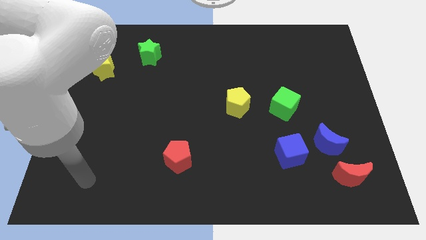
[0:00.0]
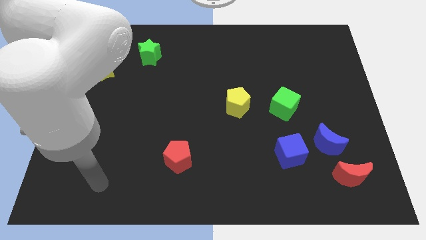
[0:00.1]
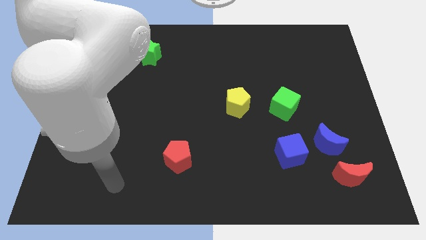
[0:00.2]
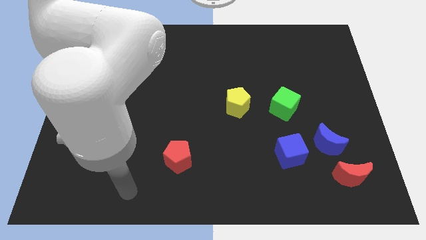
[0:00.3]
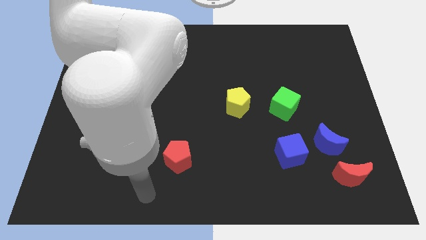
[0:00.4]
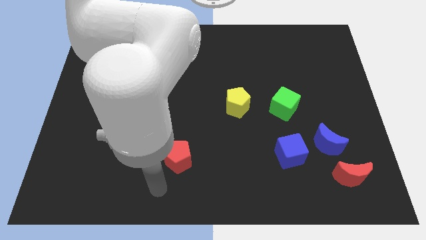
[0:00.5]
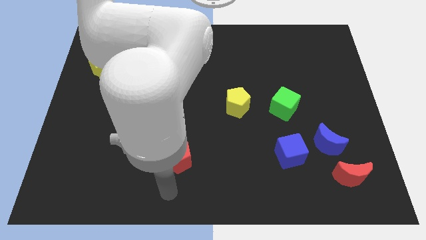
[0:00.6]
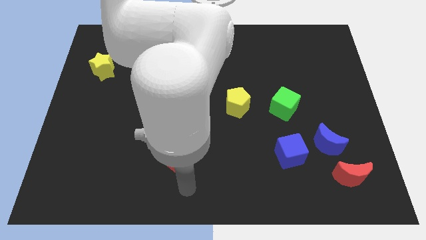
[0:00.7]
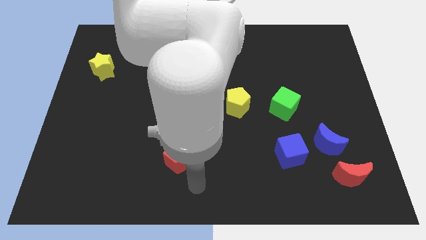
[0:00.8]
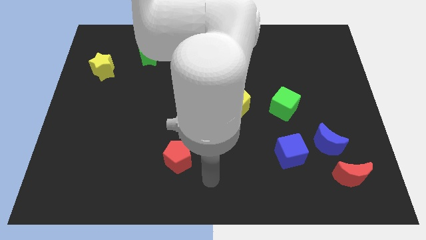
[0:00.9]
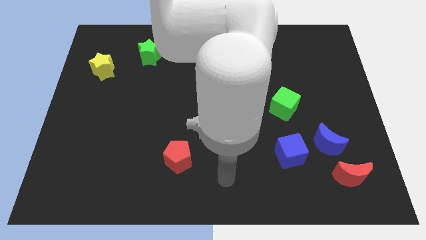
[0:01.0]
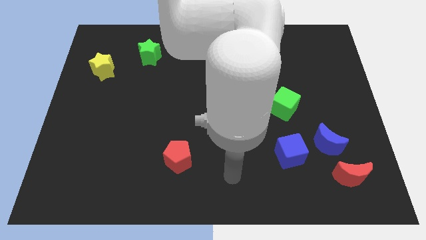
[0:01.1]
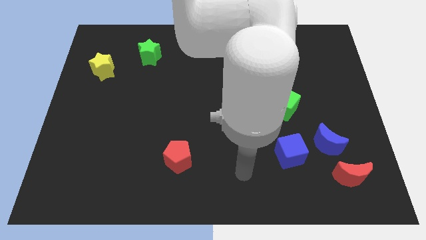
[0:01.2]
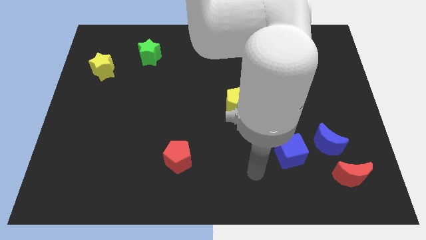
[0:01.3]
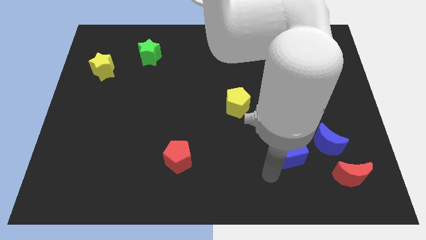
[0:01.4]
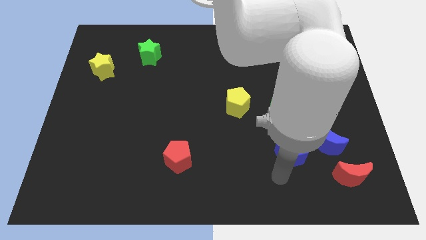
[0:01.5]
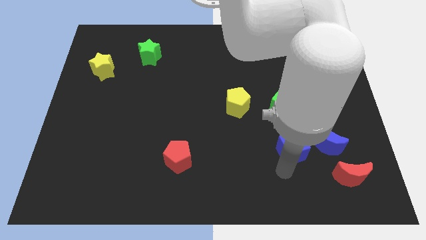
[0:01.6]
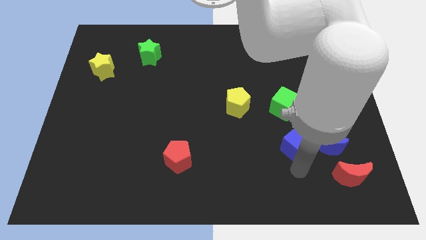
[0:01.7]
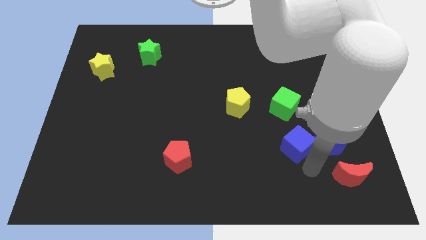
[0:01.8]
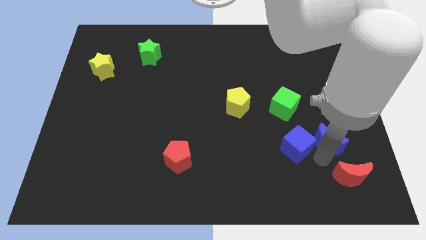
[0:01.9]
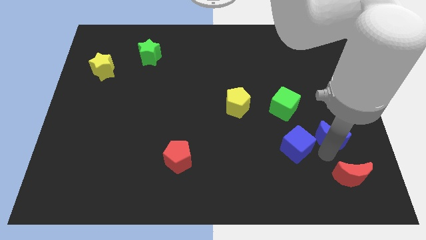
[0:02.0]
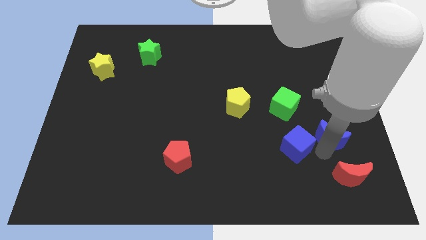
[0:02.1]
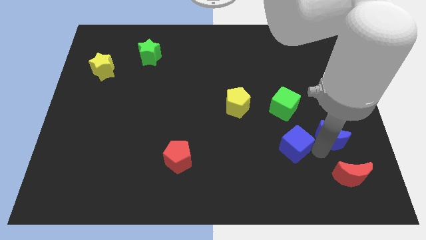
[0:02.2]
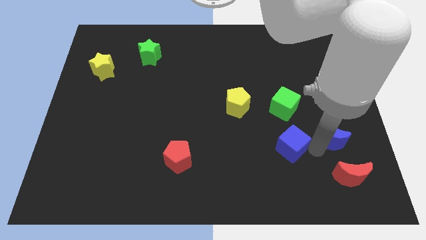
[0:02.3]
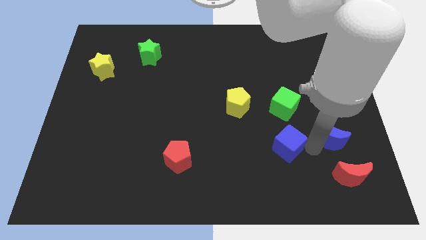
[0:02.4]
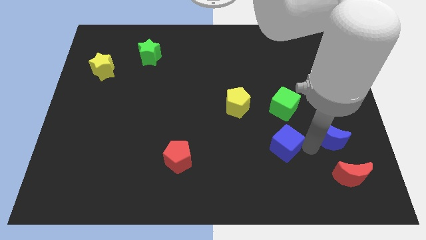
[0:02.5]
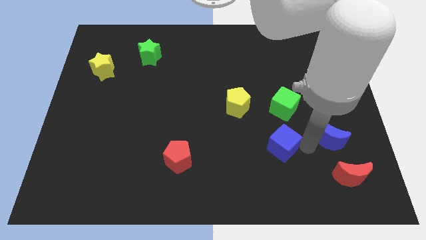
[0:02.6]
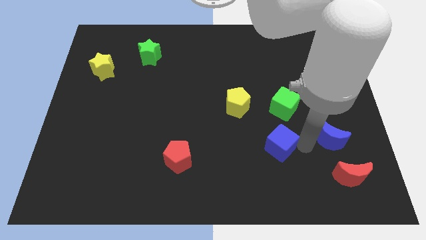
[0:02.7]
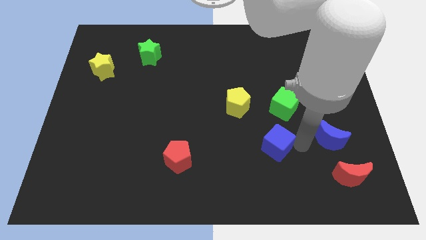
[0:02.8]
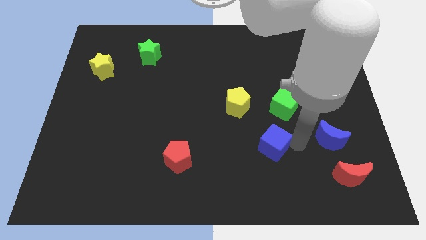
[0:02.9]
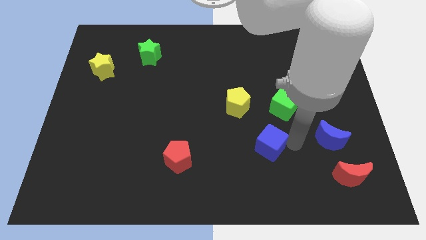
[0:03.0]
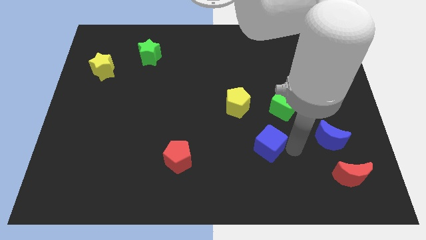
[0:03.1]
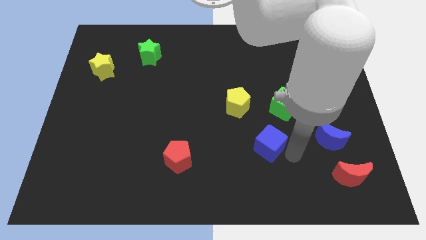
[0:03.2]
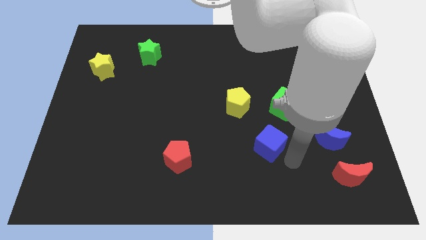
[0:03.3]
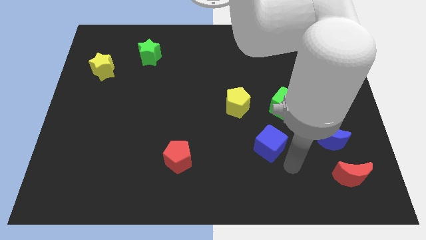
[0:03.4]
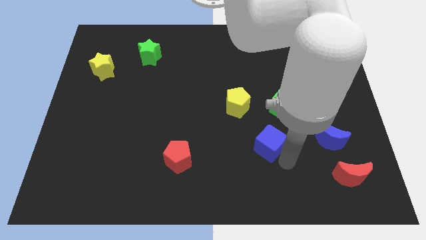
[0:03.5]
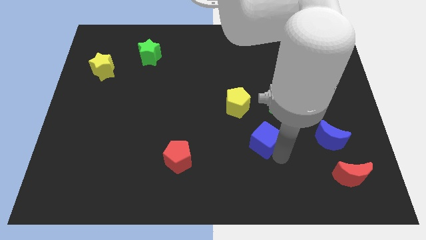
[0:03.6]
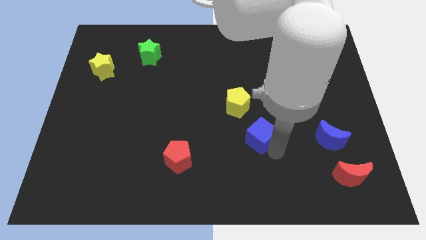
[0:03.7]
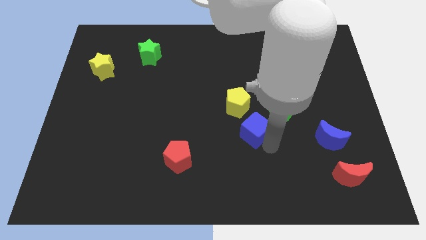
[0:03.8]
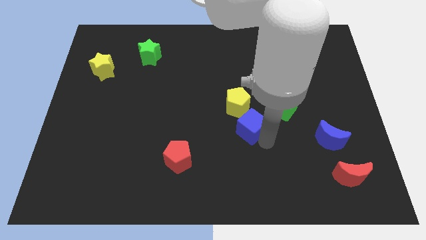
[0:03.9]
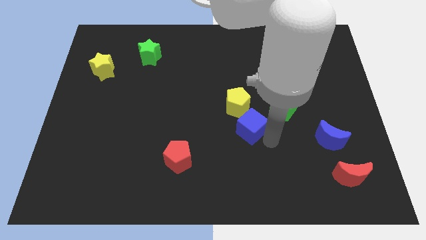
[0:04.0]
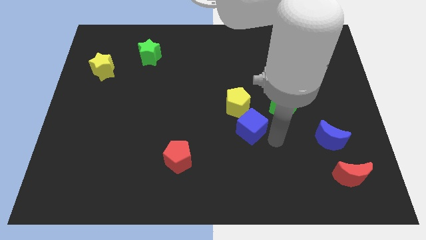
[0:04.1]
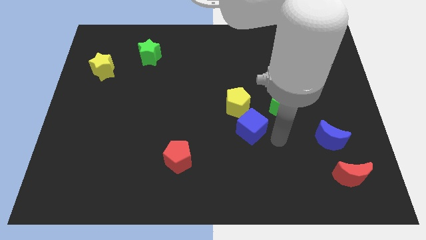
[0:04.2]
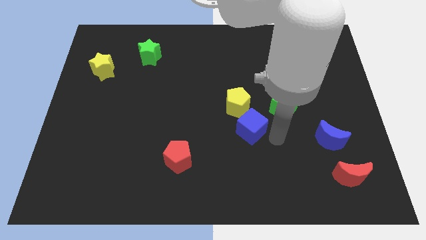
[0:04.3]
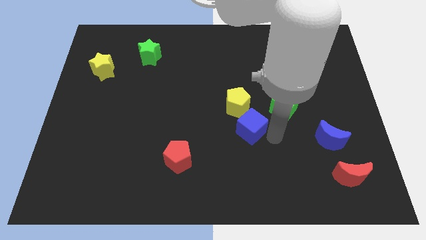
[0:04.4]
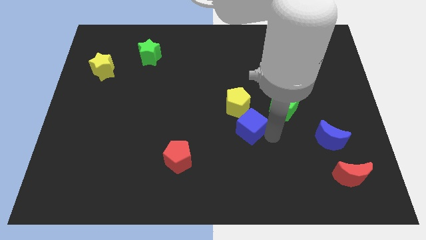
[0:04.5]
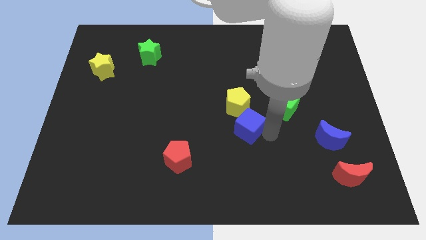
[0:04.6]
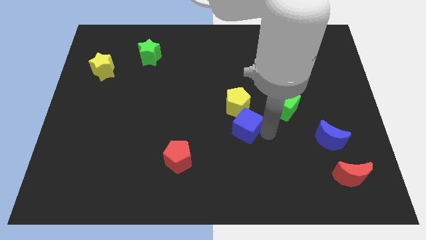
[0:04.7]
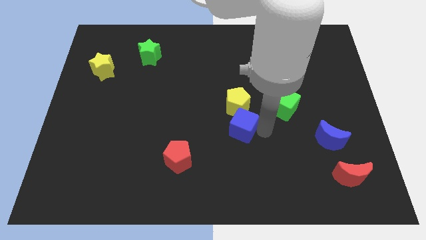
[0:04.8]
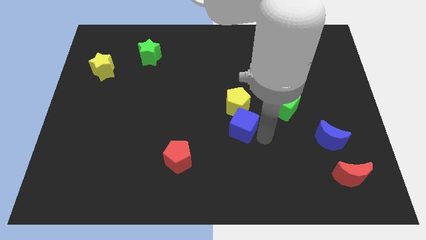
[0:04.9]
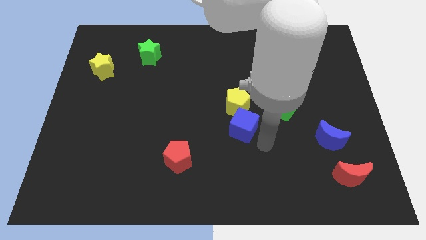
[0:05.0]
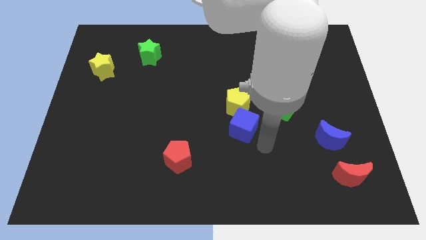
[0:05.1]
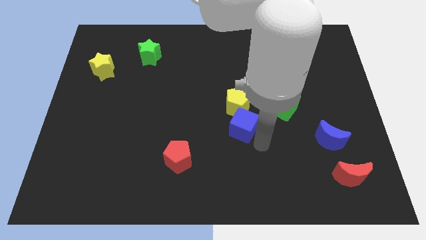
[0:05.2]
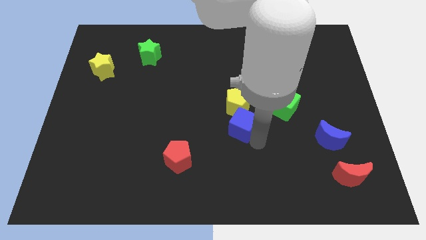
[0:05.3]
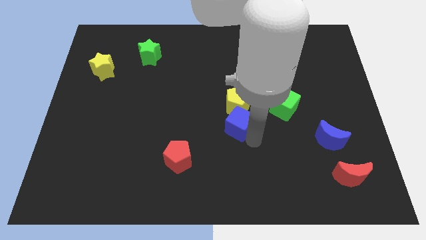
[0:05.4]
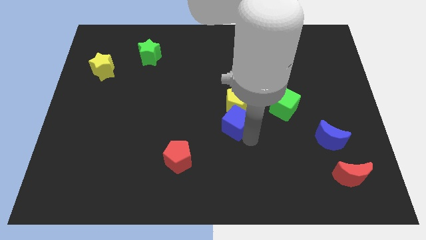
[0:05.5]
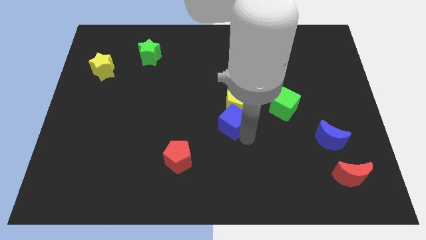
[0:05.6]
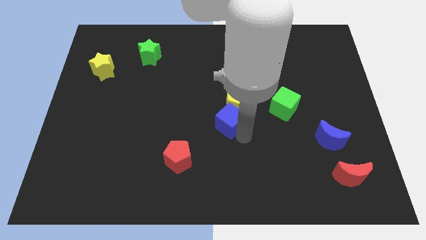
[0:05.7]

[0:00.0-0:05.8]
slide the blue cube just left of the green cube

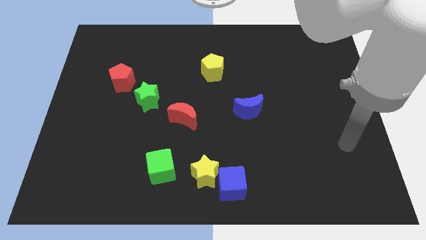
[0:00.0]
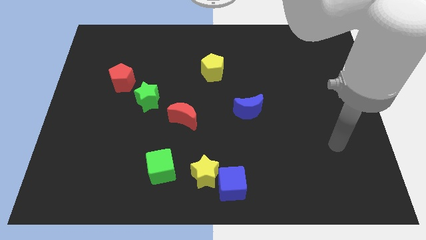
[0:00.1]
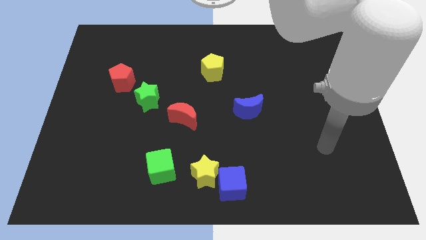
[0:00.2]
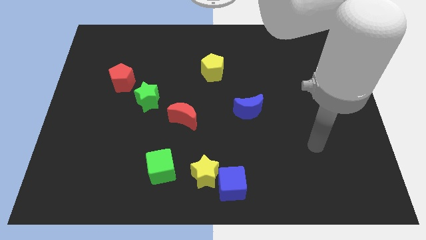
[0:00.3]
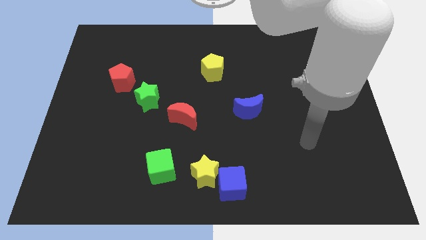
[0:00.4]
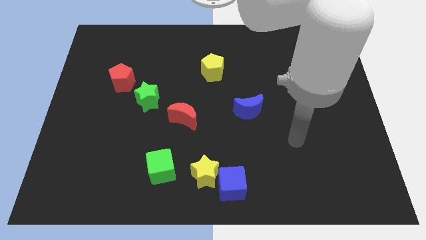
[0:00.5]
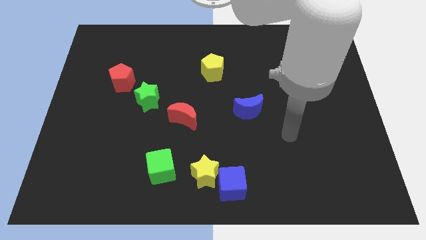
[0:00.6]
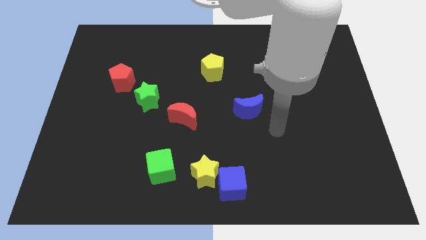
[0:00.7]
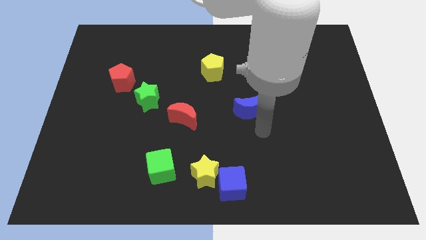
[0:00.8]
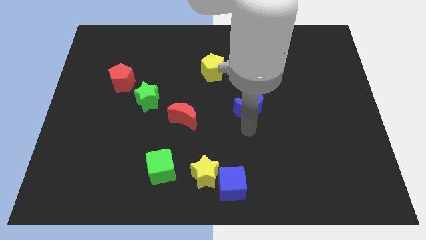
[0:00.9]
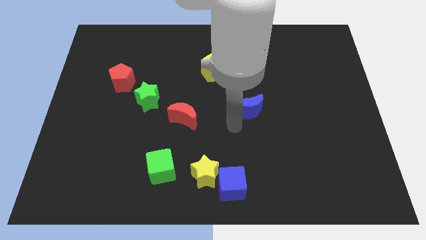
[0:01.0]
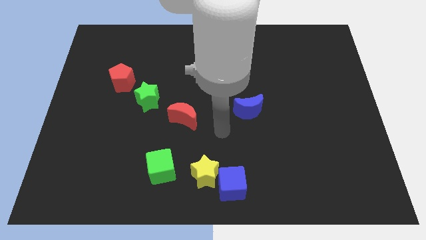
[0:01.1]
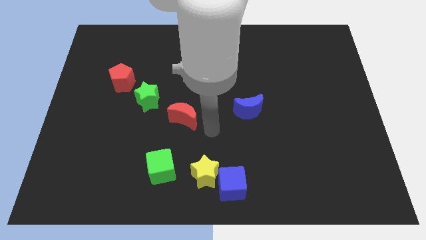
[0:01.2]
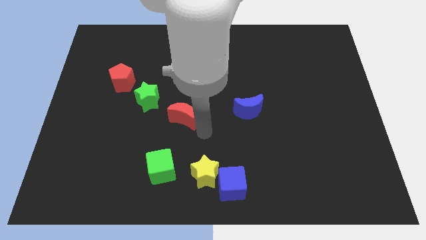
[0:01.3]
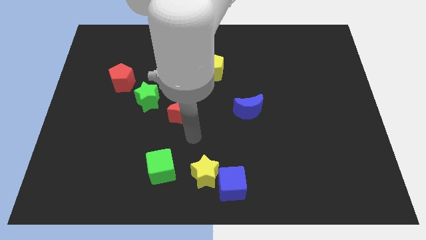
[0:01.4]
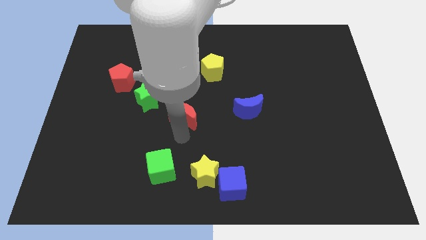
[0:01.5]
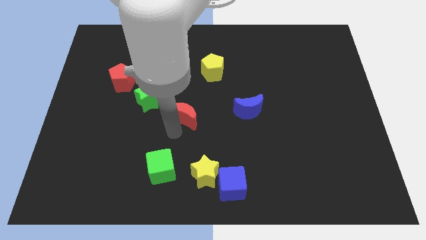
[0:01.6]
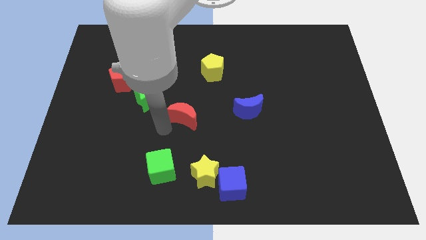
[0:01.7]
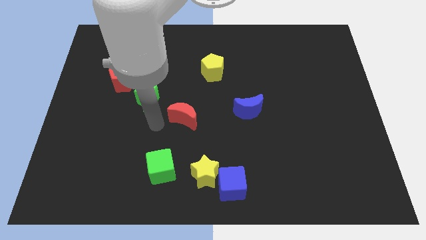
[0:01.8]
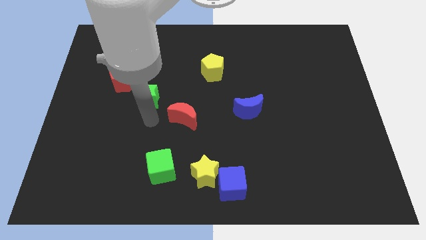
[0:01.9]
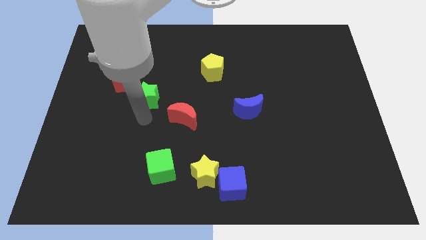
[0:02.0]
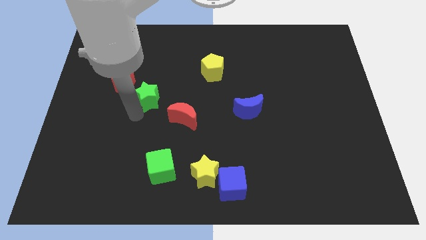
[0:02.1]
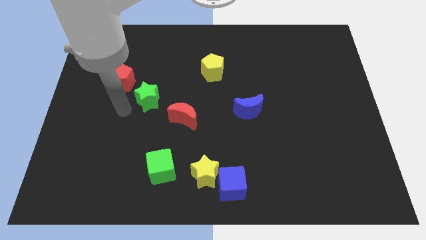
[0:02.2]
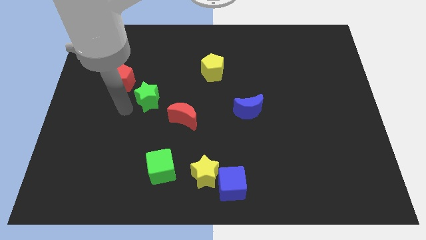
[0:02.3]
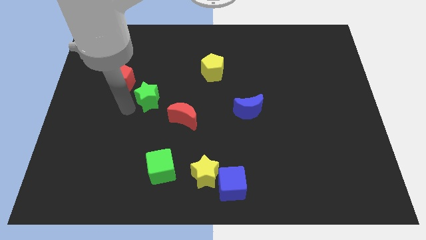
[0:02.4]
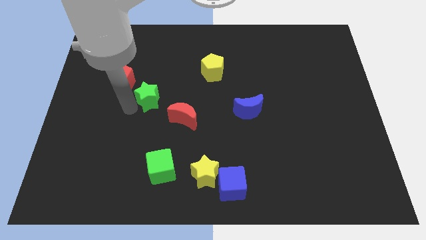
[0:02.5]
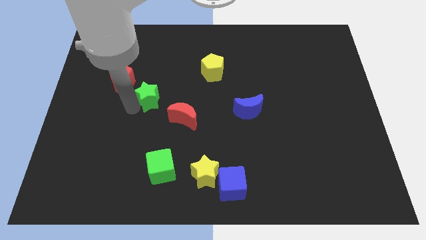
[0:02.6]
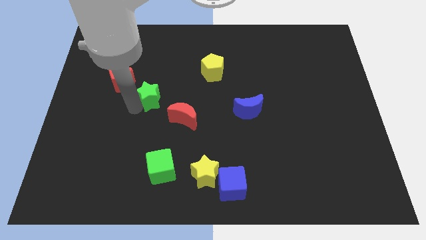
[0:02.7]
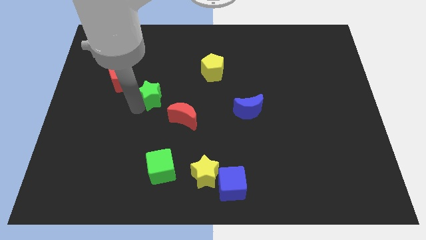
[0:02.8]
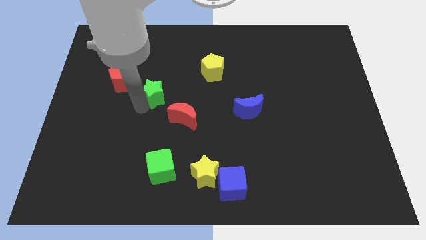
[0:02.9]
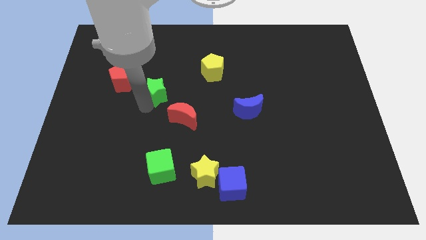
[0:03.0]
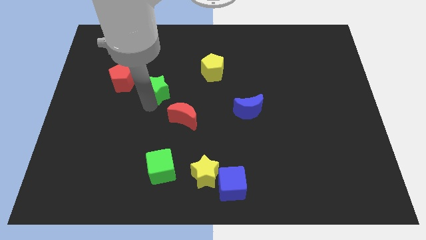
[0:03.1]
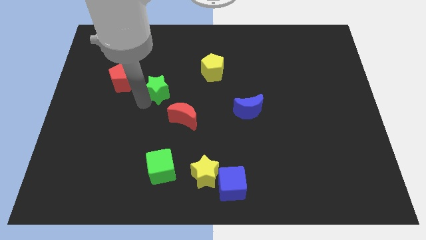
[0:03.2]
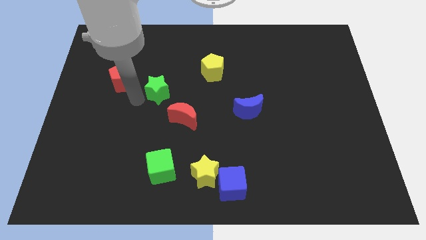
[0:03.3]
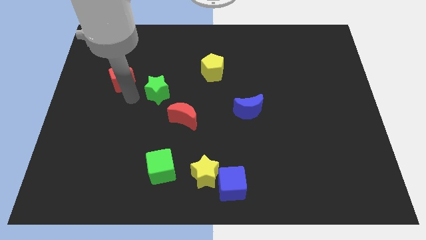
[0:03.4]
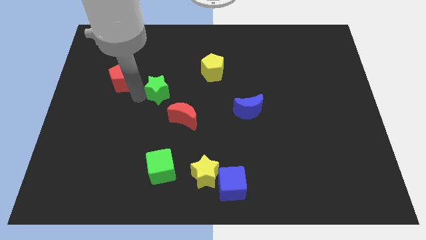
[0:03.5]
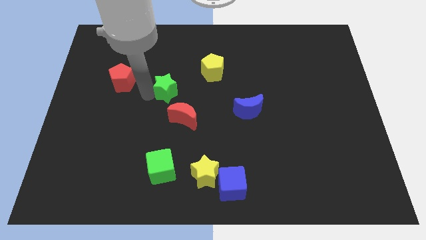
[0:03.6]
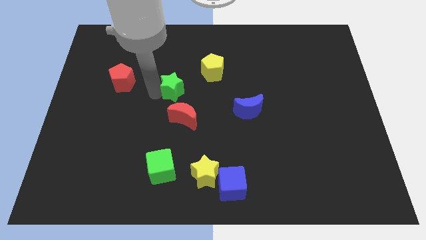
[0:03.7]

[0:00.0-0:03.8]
slide the green star to the bottom left of the yellow pentagon
